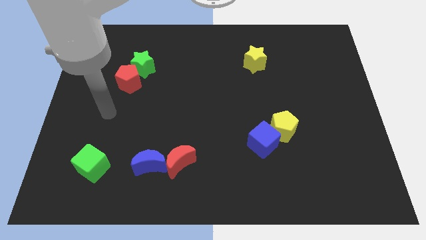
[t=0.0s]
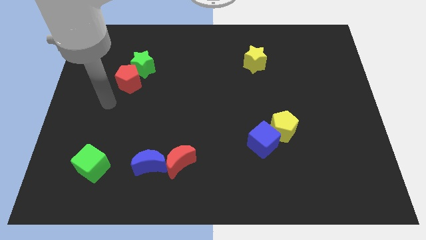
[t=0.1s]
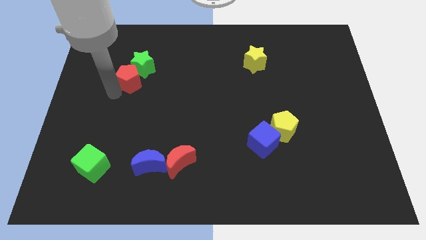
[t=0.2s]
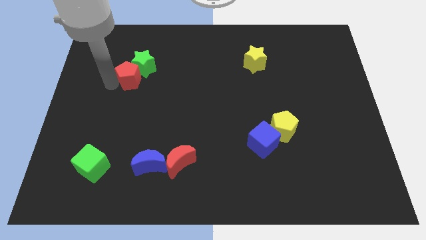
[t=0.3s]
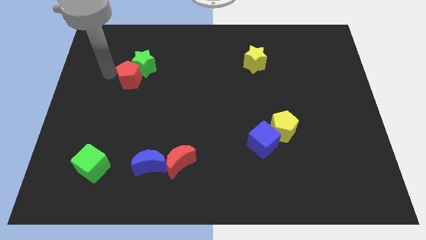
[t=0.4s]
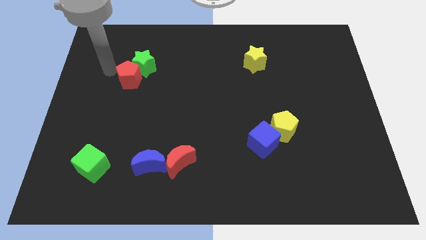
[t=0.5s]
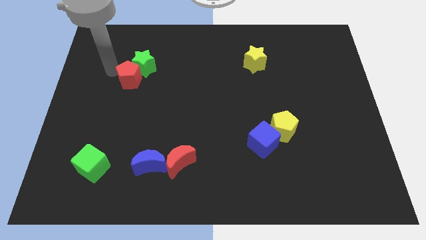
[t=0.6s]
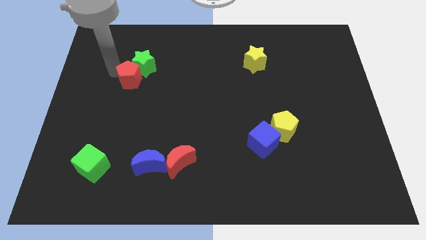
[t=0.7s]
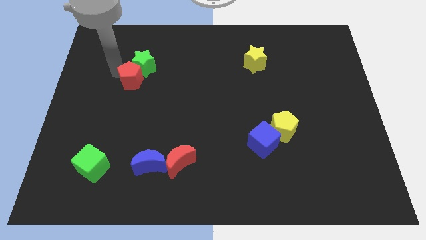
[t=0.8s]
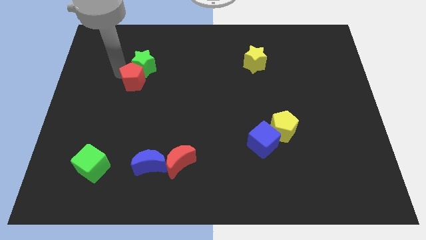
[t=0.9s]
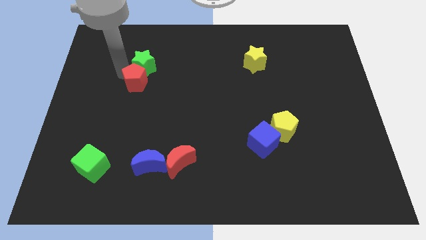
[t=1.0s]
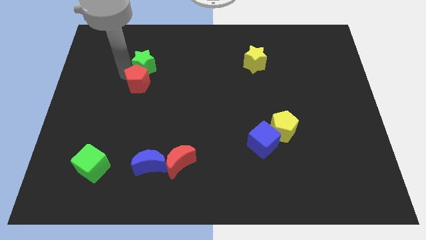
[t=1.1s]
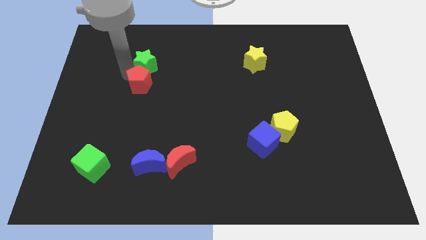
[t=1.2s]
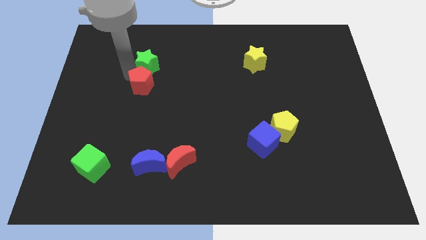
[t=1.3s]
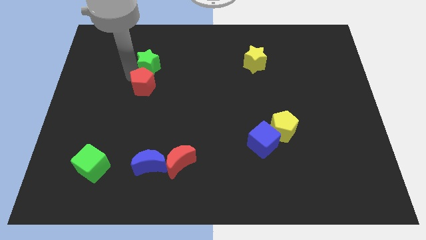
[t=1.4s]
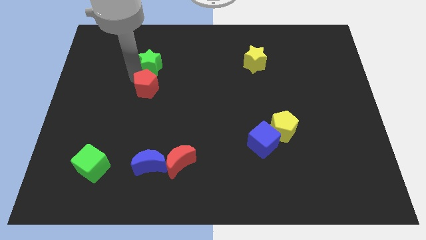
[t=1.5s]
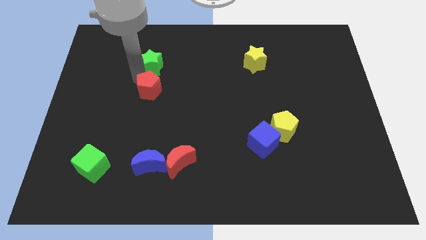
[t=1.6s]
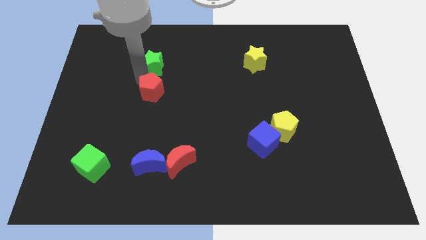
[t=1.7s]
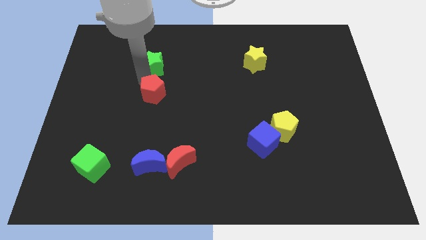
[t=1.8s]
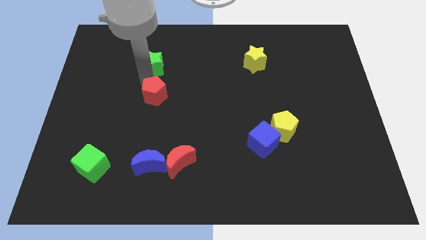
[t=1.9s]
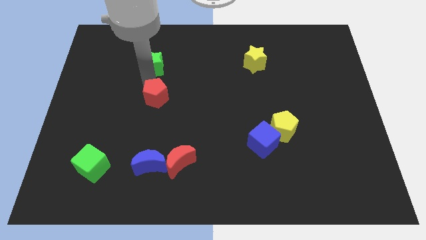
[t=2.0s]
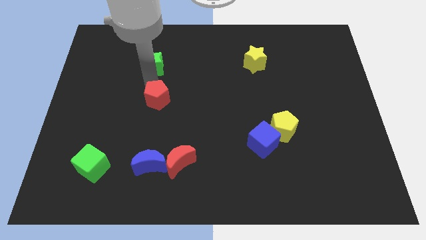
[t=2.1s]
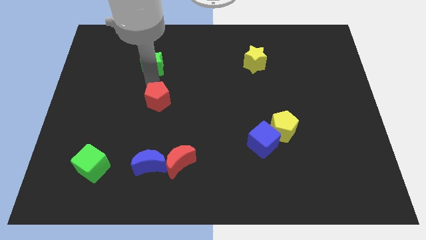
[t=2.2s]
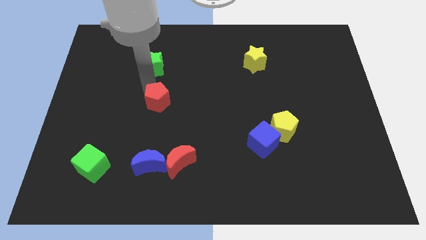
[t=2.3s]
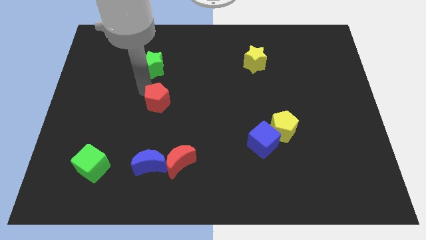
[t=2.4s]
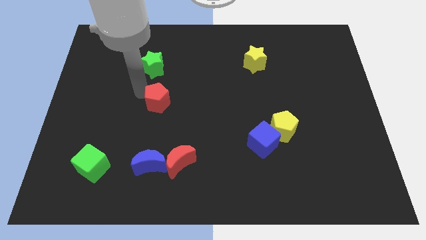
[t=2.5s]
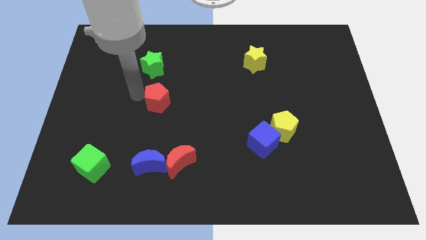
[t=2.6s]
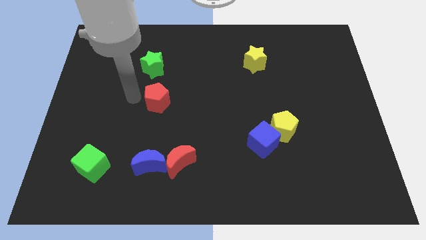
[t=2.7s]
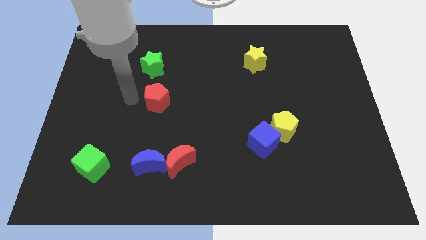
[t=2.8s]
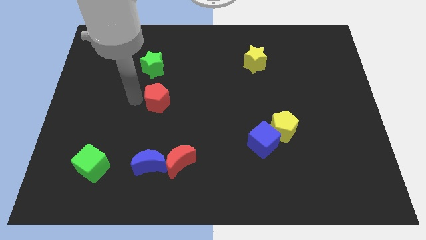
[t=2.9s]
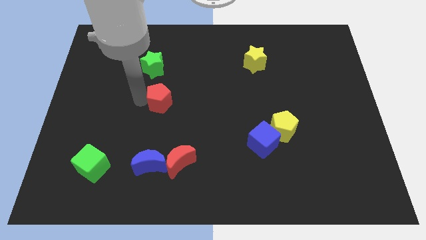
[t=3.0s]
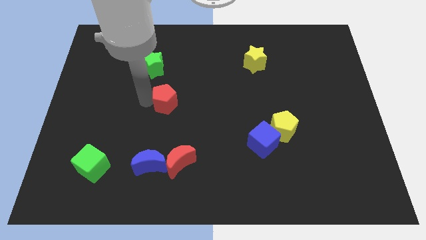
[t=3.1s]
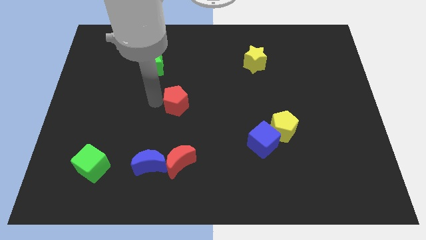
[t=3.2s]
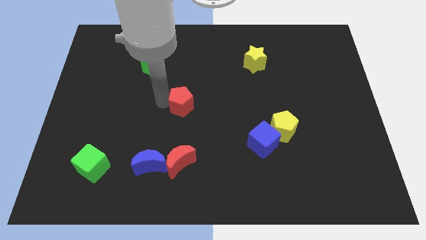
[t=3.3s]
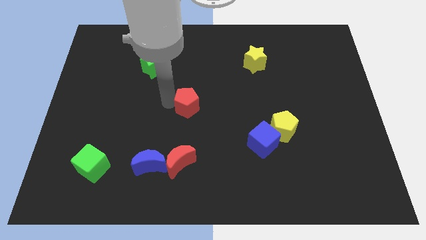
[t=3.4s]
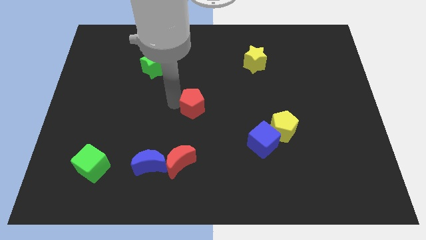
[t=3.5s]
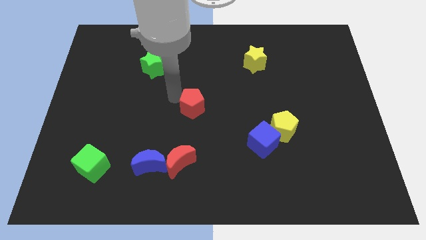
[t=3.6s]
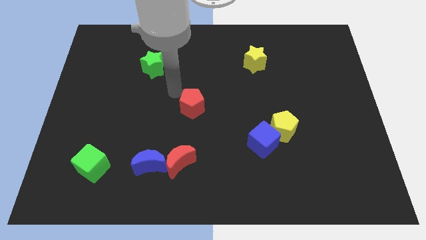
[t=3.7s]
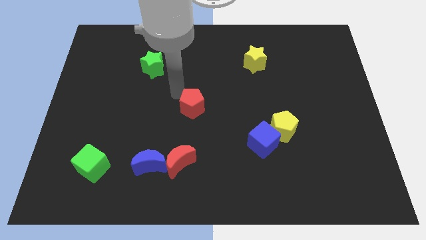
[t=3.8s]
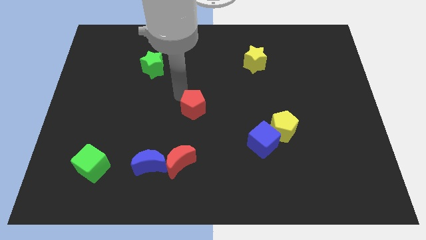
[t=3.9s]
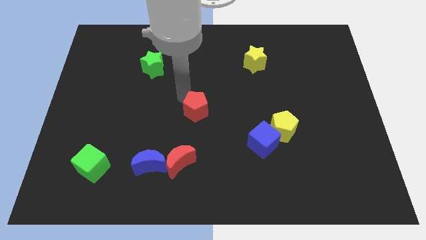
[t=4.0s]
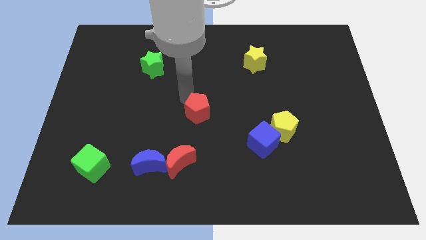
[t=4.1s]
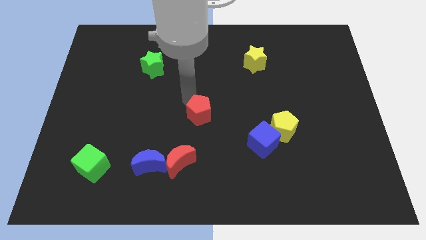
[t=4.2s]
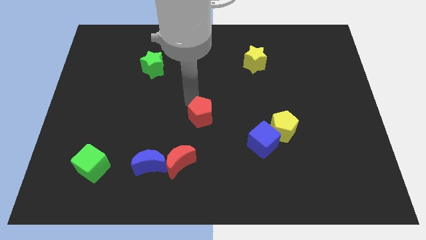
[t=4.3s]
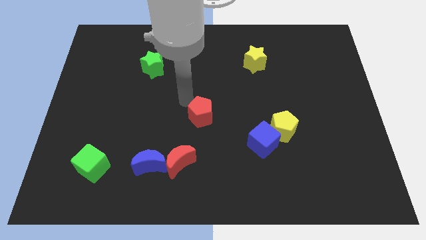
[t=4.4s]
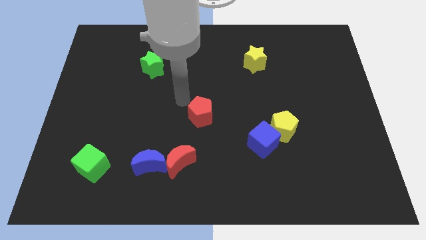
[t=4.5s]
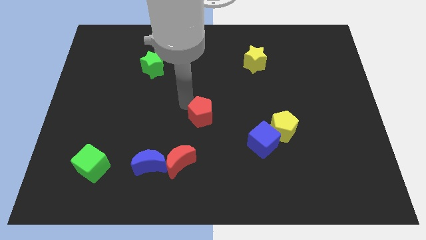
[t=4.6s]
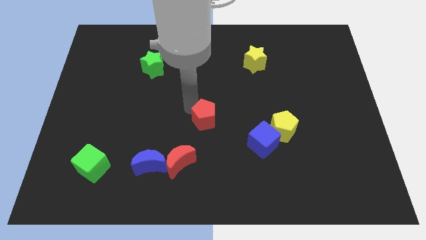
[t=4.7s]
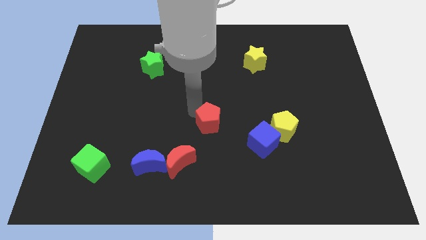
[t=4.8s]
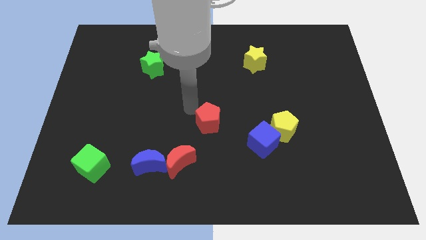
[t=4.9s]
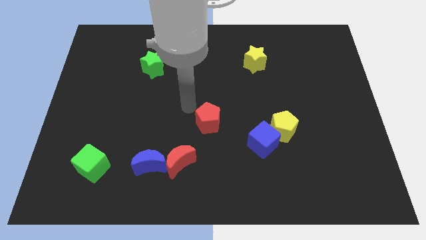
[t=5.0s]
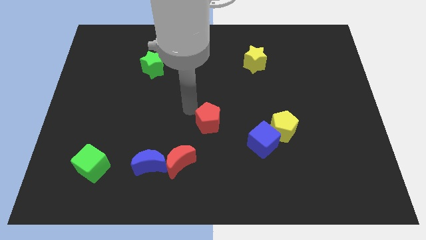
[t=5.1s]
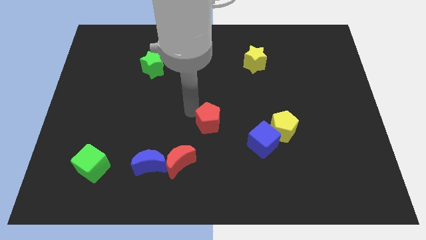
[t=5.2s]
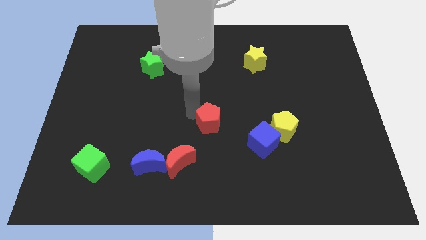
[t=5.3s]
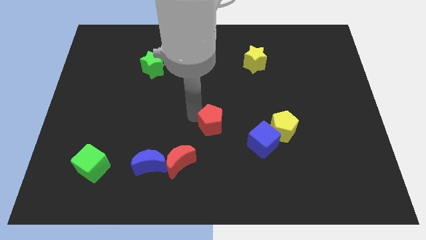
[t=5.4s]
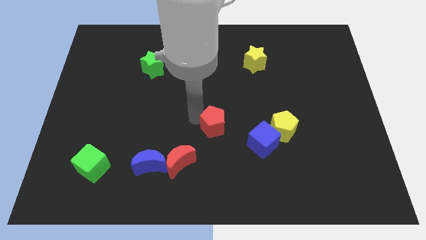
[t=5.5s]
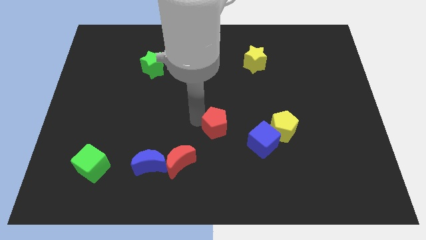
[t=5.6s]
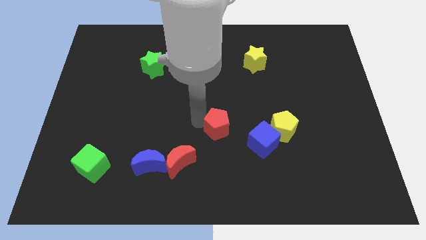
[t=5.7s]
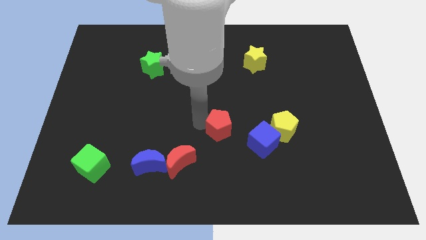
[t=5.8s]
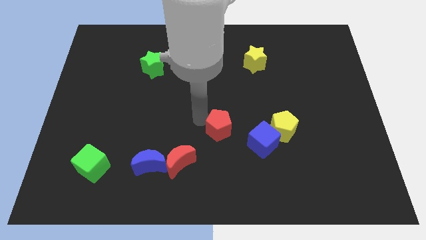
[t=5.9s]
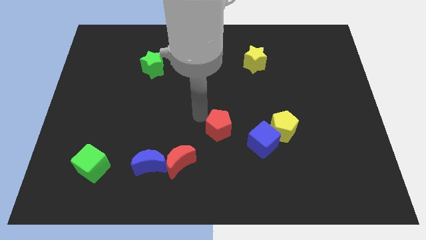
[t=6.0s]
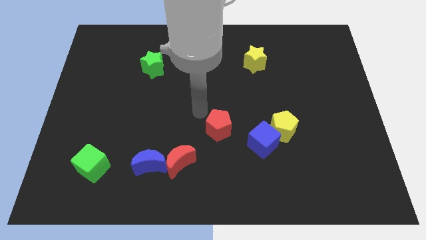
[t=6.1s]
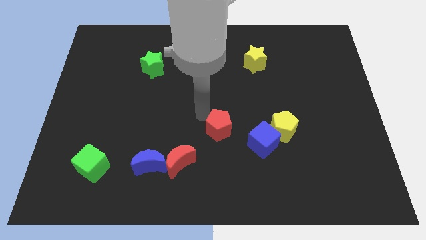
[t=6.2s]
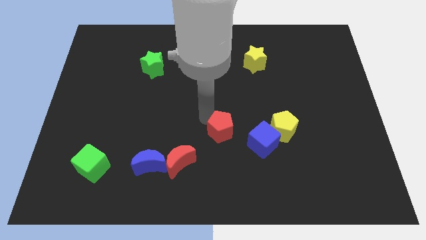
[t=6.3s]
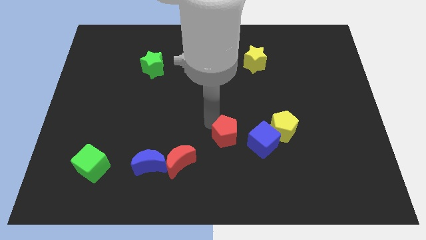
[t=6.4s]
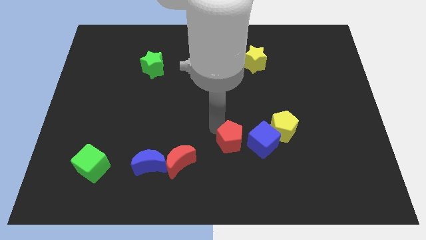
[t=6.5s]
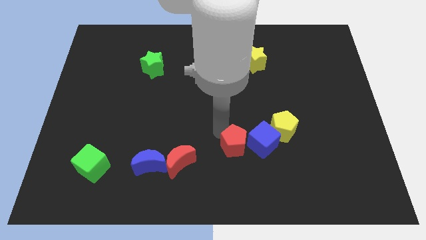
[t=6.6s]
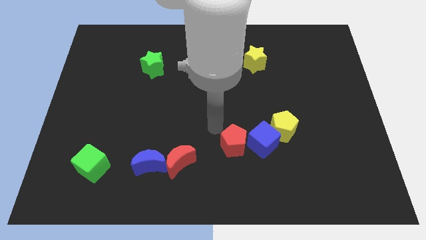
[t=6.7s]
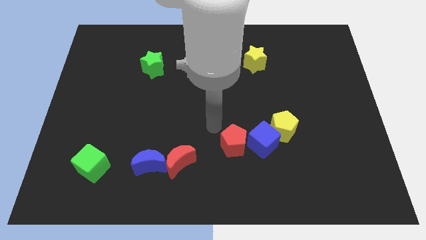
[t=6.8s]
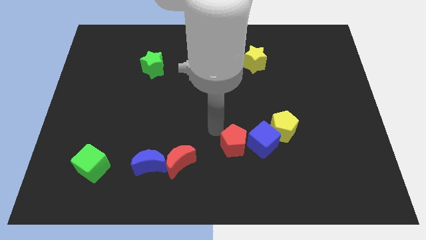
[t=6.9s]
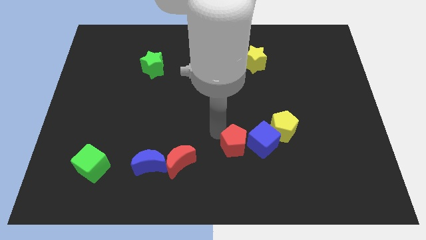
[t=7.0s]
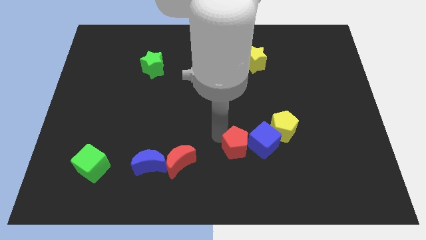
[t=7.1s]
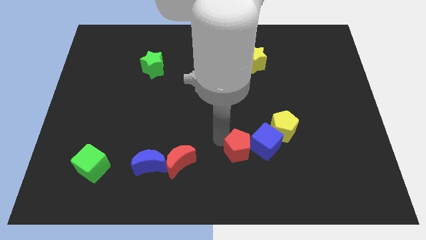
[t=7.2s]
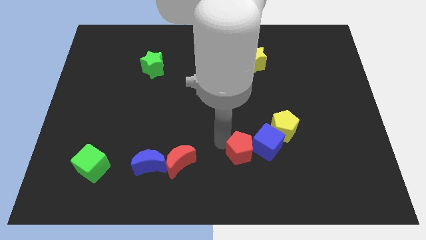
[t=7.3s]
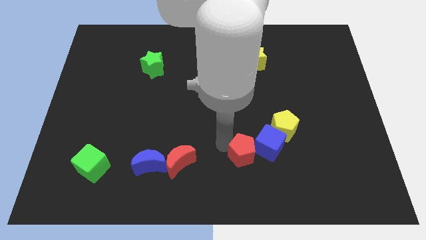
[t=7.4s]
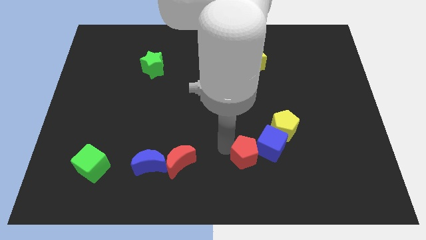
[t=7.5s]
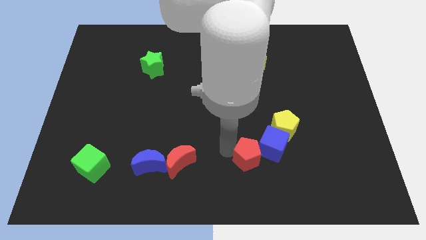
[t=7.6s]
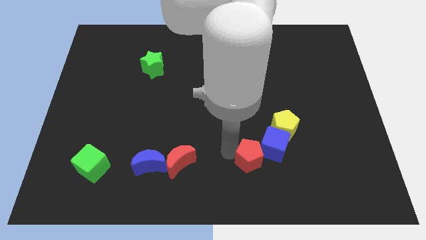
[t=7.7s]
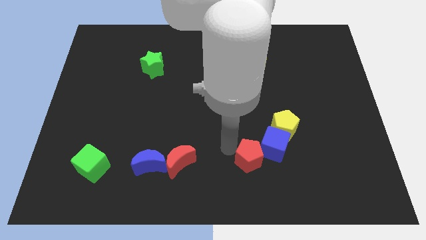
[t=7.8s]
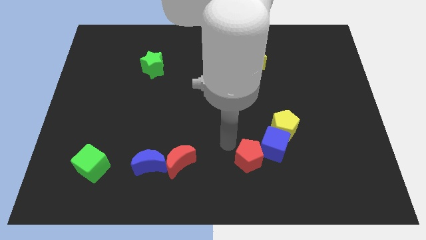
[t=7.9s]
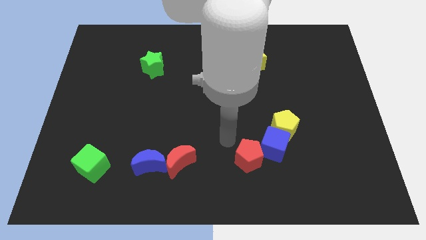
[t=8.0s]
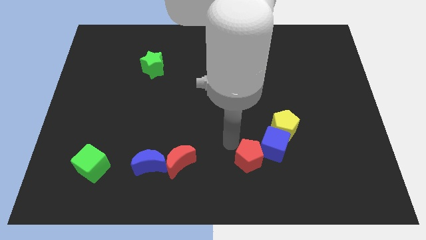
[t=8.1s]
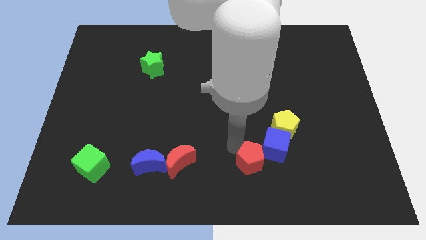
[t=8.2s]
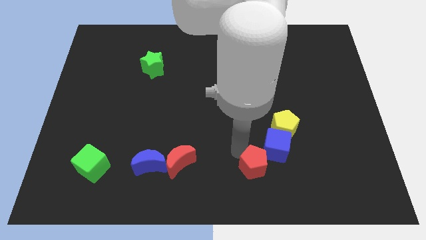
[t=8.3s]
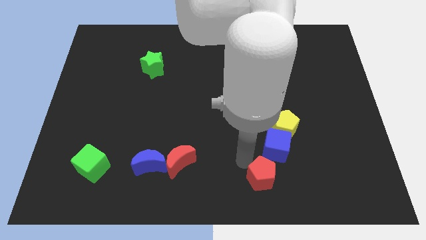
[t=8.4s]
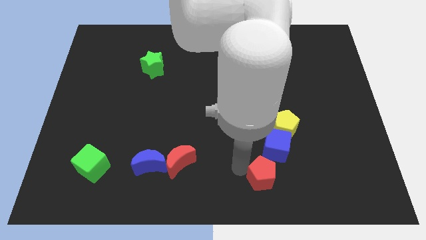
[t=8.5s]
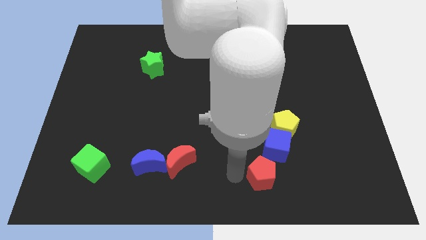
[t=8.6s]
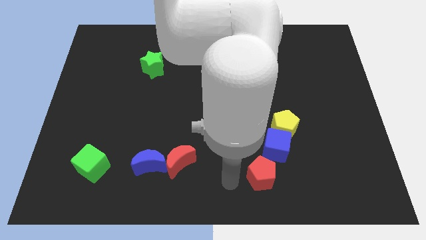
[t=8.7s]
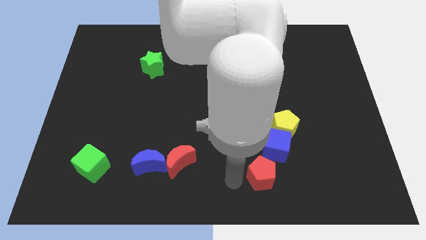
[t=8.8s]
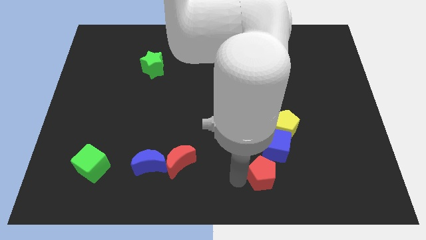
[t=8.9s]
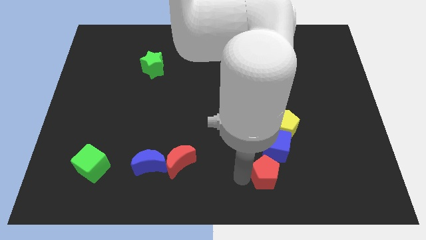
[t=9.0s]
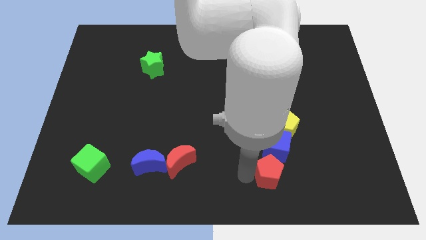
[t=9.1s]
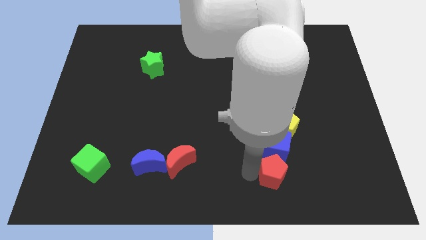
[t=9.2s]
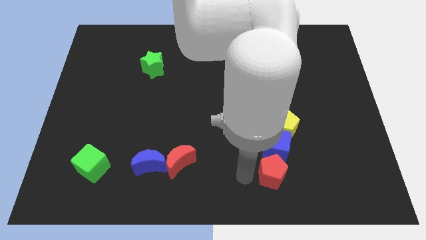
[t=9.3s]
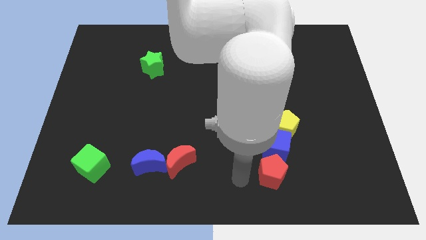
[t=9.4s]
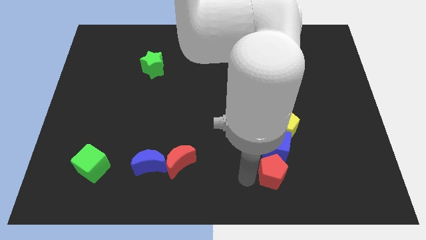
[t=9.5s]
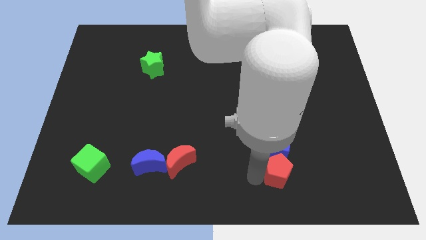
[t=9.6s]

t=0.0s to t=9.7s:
push the red pentagon diagonally down and to the right of the blue cube
